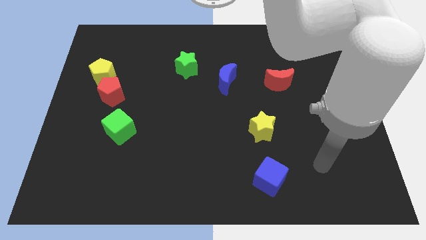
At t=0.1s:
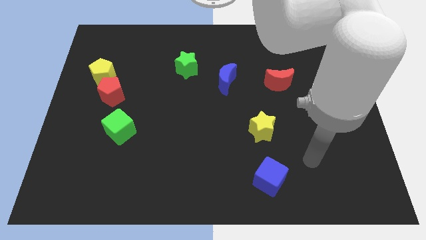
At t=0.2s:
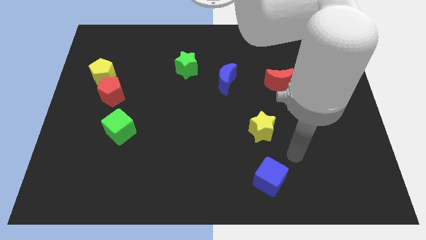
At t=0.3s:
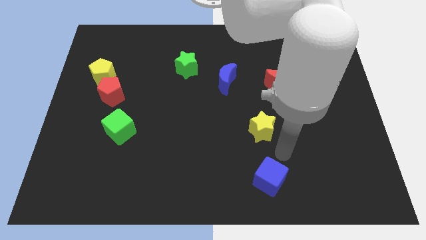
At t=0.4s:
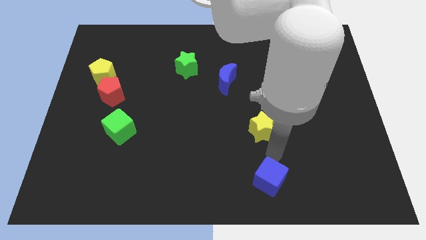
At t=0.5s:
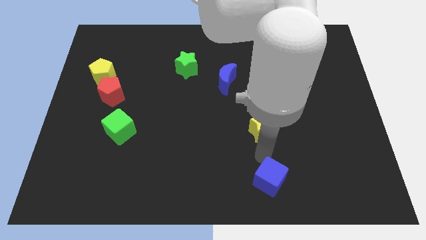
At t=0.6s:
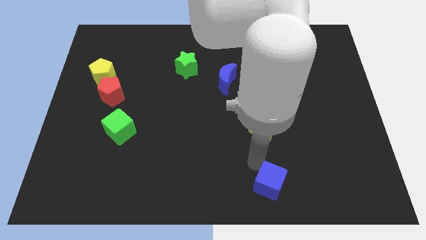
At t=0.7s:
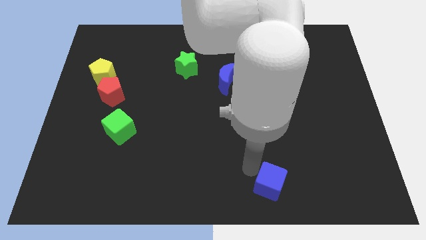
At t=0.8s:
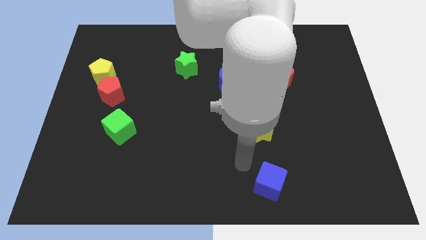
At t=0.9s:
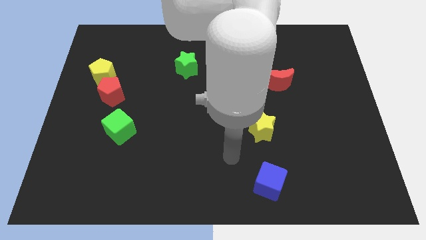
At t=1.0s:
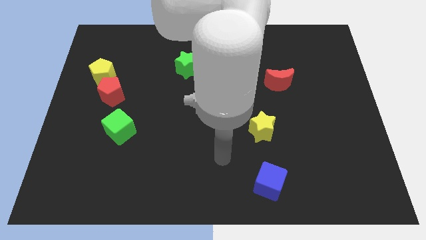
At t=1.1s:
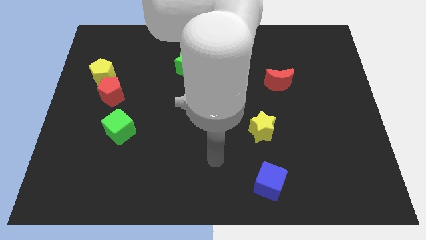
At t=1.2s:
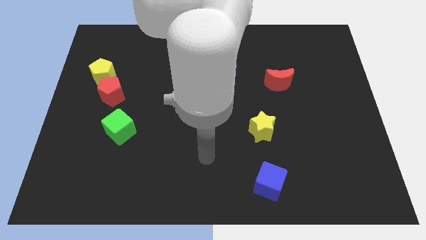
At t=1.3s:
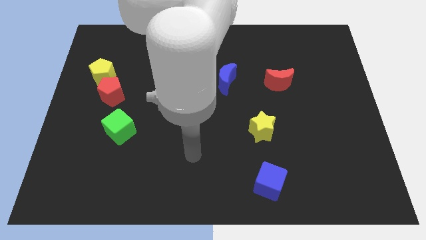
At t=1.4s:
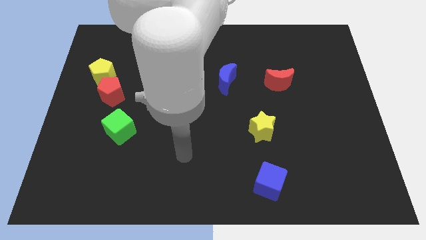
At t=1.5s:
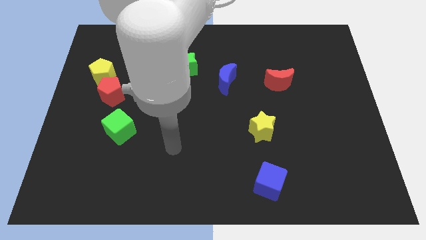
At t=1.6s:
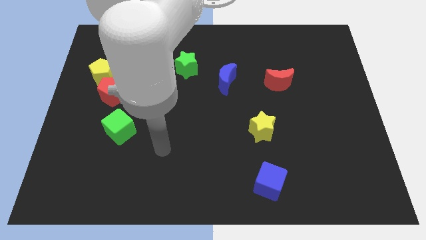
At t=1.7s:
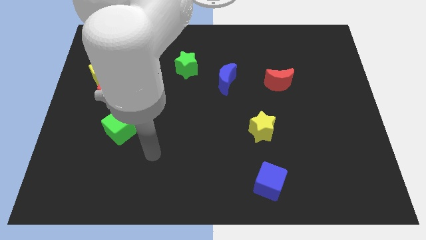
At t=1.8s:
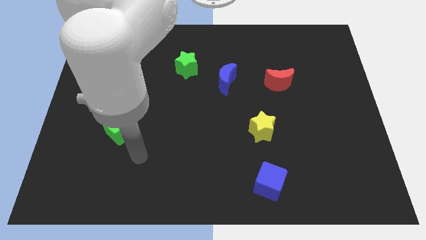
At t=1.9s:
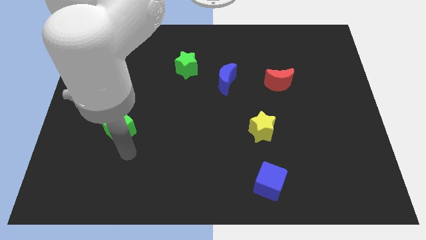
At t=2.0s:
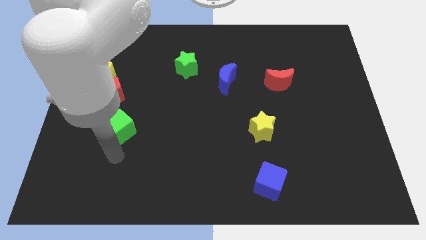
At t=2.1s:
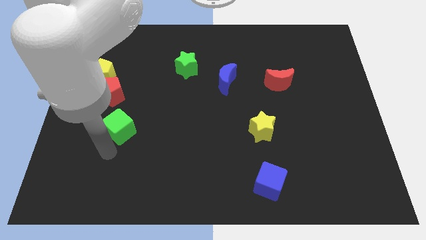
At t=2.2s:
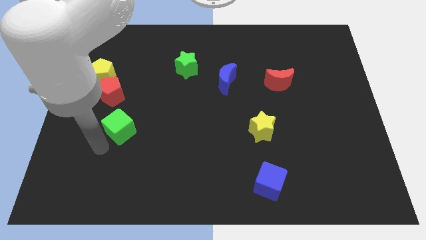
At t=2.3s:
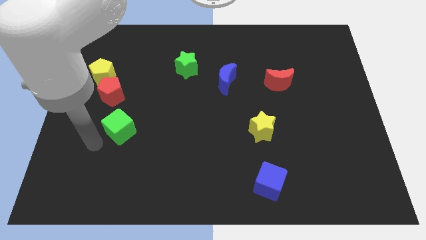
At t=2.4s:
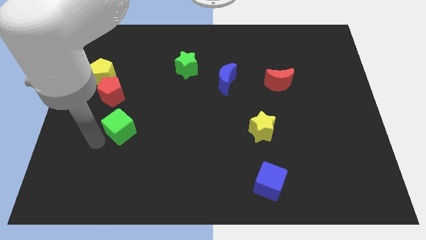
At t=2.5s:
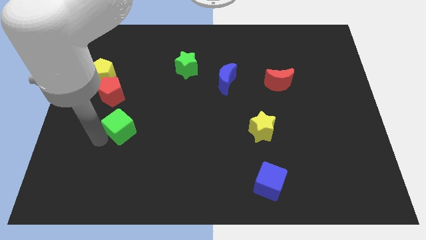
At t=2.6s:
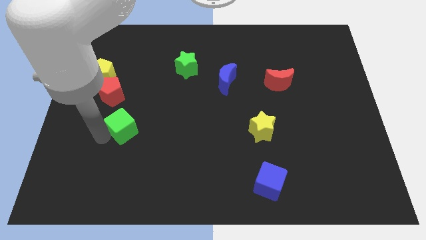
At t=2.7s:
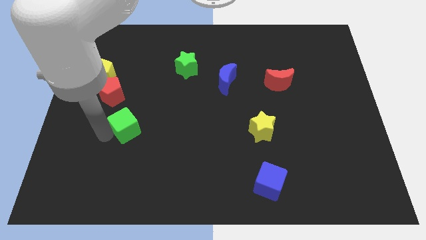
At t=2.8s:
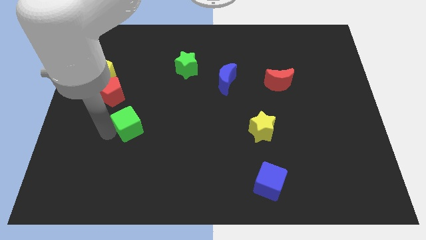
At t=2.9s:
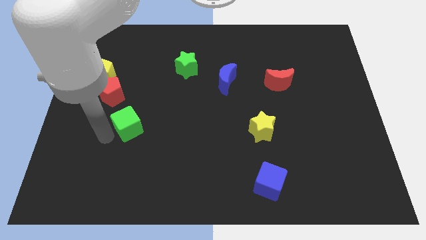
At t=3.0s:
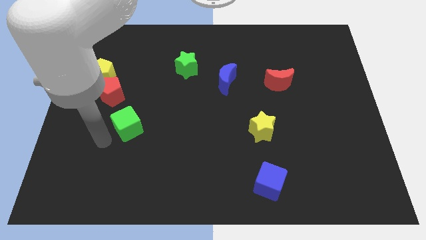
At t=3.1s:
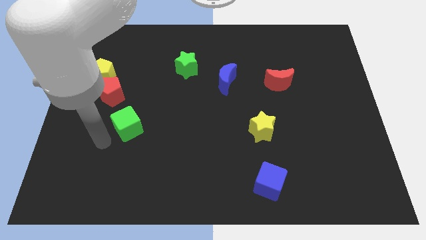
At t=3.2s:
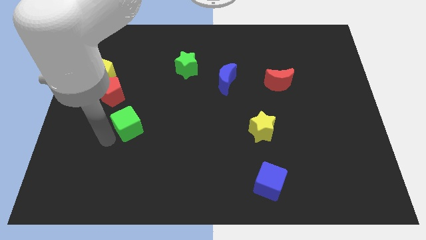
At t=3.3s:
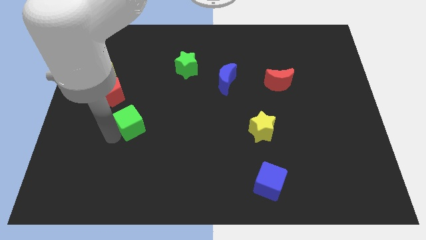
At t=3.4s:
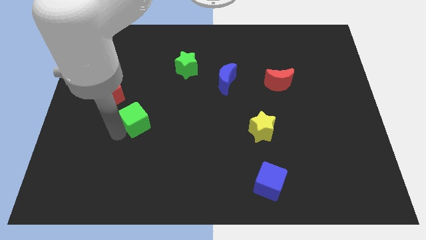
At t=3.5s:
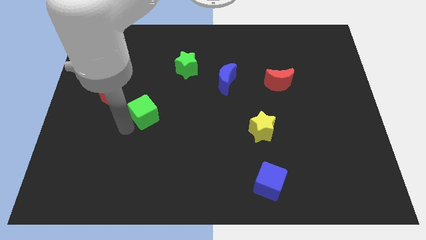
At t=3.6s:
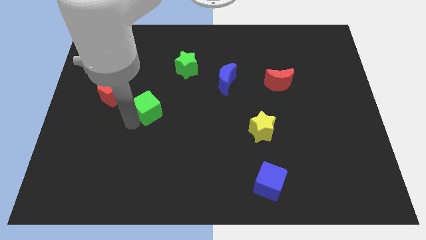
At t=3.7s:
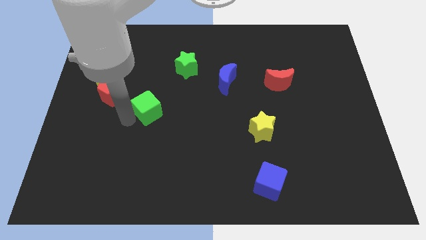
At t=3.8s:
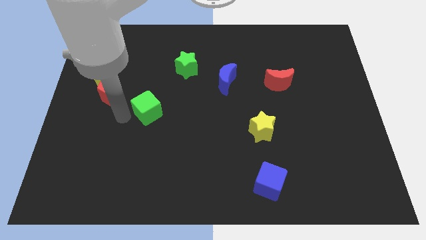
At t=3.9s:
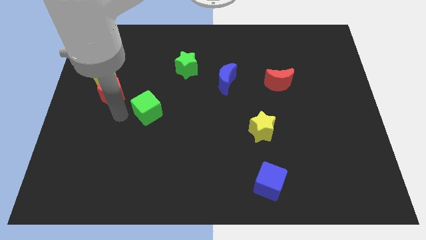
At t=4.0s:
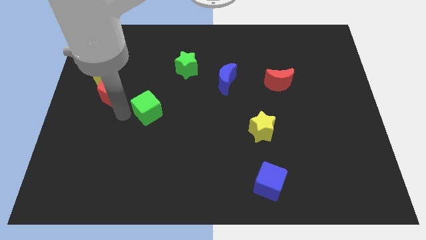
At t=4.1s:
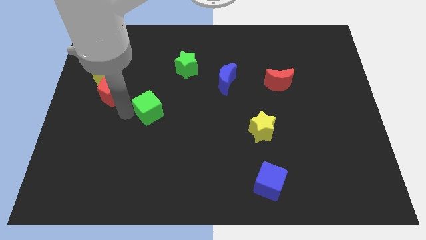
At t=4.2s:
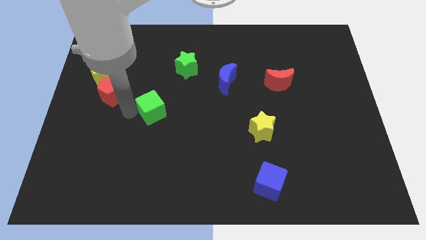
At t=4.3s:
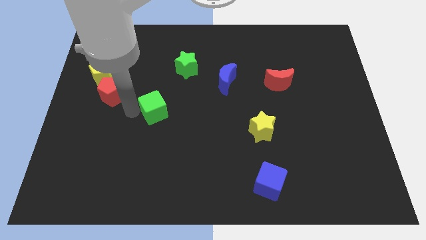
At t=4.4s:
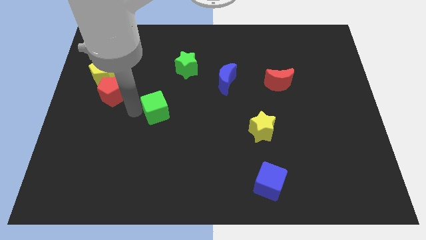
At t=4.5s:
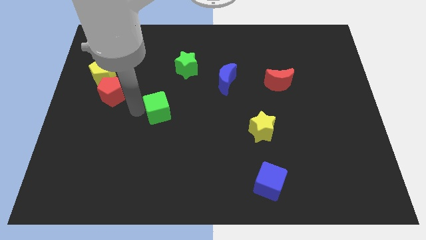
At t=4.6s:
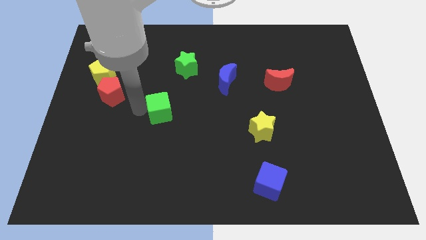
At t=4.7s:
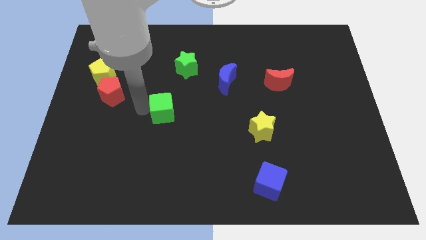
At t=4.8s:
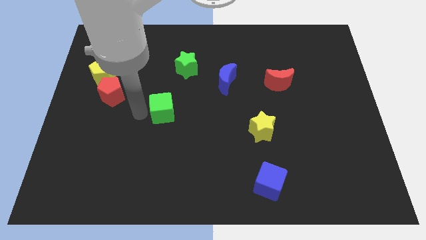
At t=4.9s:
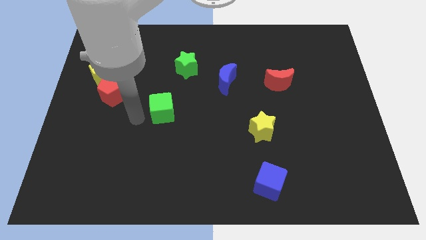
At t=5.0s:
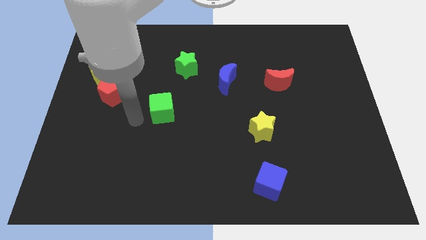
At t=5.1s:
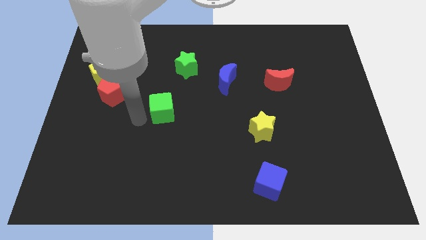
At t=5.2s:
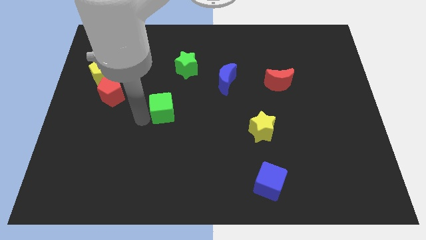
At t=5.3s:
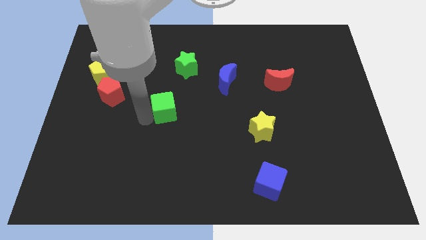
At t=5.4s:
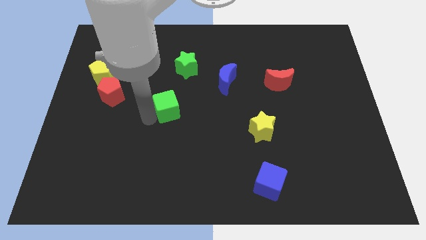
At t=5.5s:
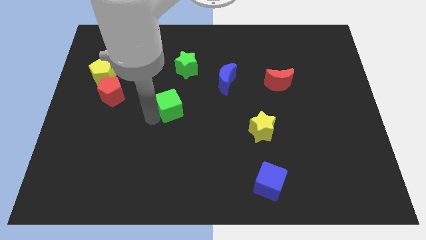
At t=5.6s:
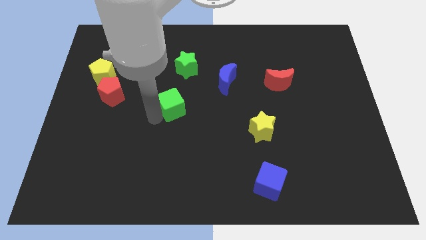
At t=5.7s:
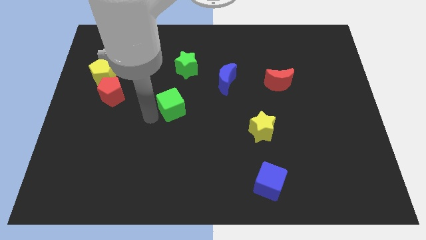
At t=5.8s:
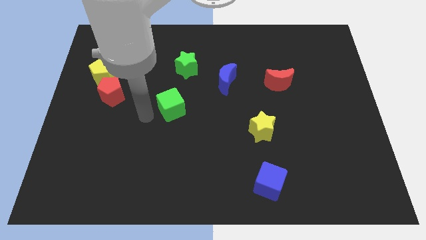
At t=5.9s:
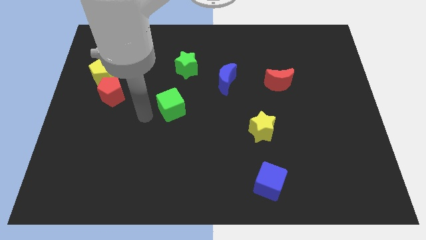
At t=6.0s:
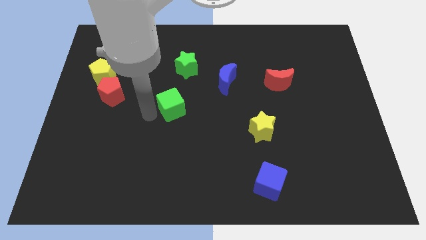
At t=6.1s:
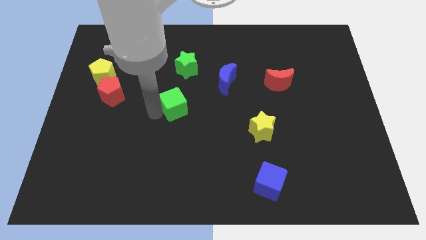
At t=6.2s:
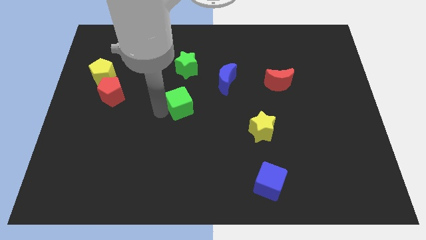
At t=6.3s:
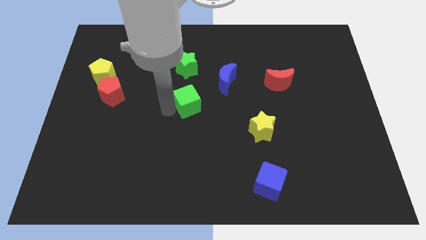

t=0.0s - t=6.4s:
slide the green cube to the bottom left side of the blue moon

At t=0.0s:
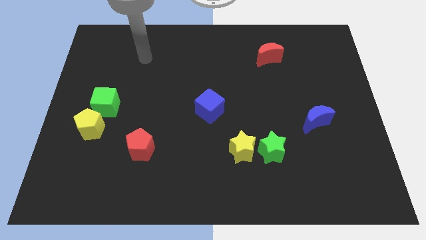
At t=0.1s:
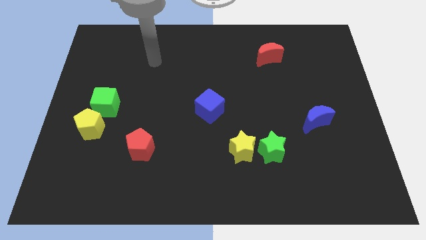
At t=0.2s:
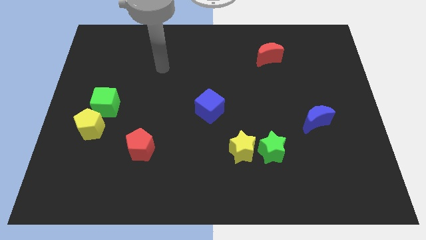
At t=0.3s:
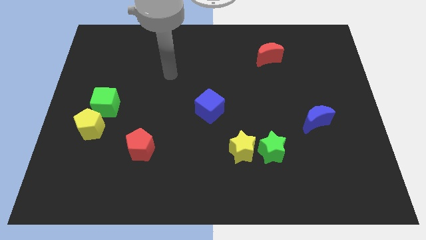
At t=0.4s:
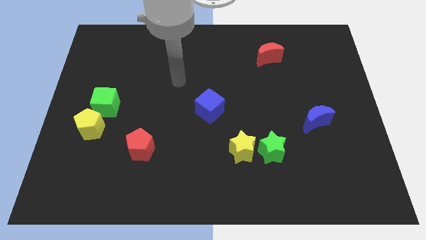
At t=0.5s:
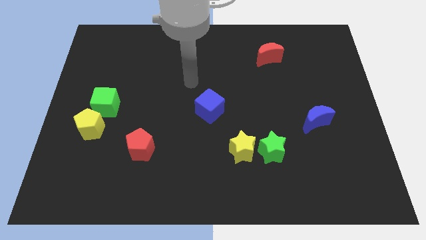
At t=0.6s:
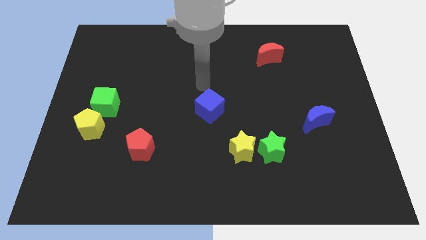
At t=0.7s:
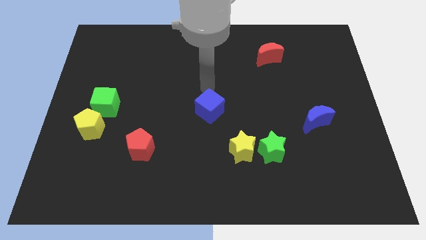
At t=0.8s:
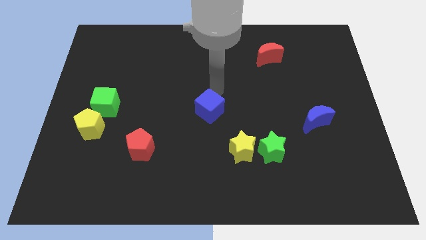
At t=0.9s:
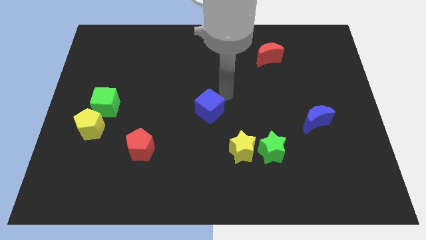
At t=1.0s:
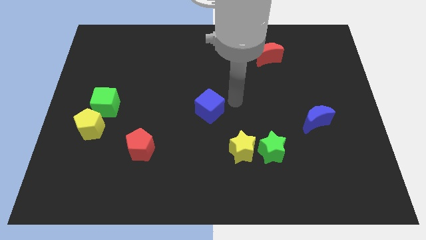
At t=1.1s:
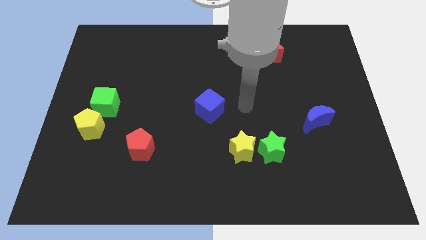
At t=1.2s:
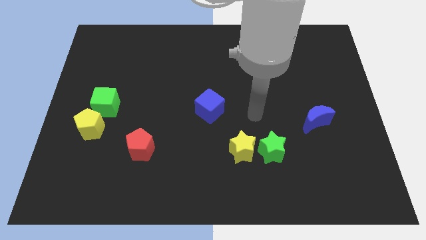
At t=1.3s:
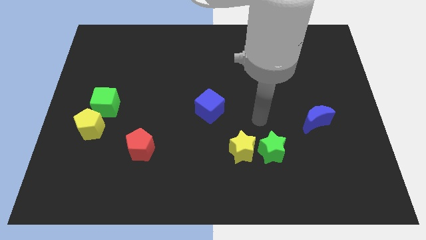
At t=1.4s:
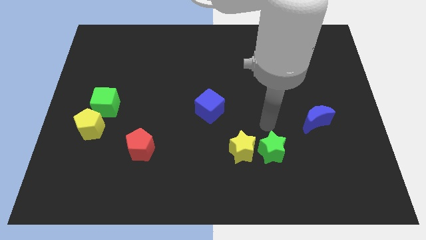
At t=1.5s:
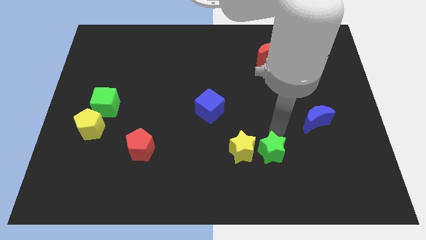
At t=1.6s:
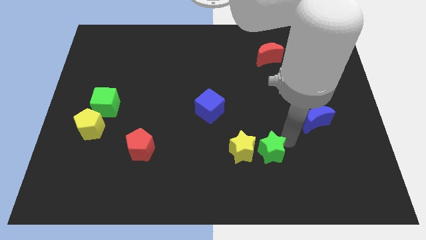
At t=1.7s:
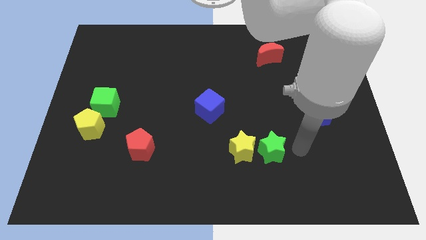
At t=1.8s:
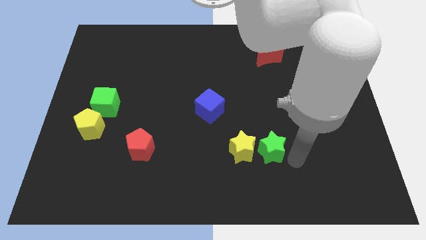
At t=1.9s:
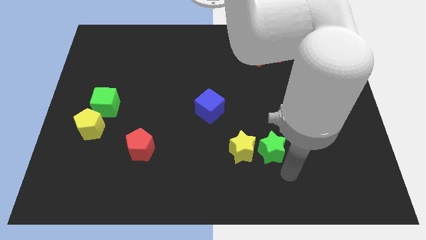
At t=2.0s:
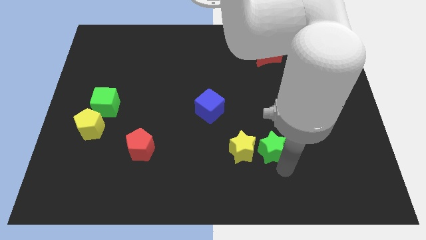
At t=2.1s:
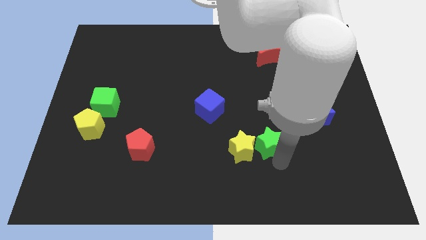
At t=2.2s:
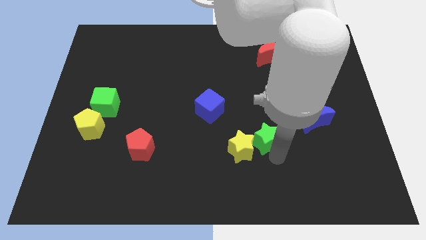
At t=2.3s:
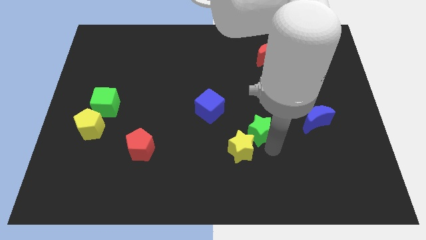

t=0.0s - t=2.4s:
slide the green star to the top of the yellow star
